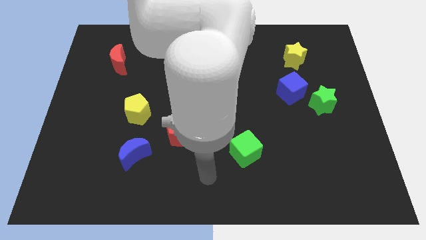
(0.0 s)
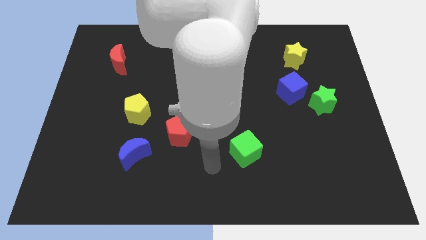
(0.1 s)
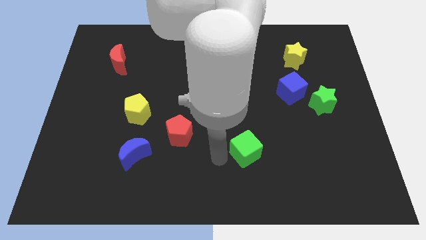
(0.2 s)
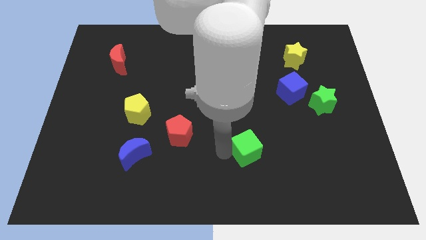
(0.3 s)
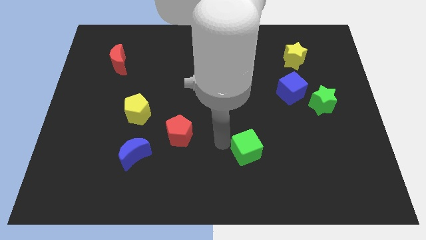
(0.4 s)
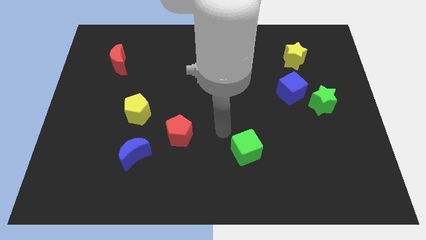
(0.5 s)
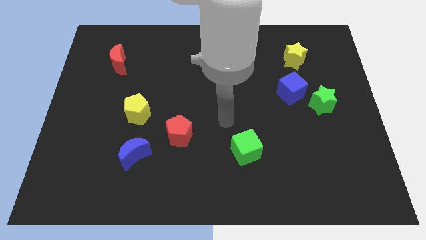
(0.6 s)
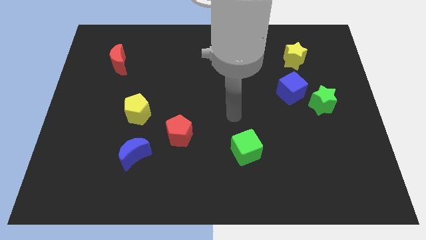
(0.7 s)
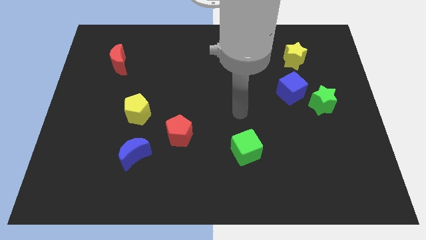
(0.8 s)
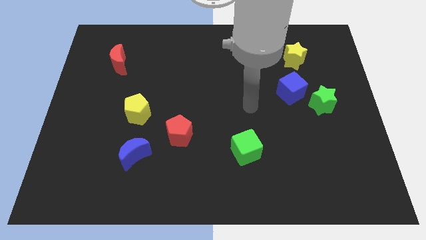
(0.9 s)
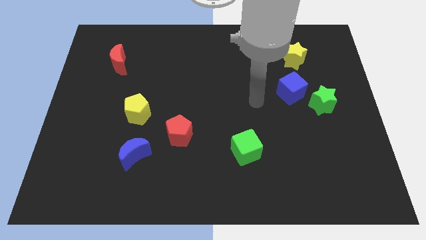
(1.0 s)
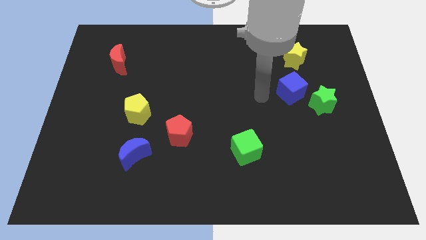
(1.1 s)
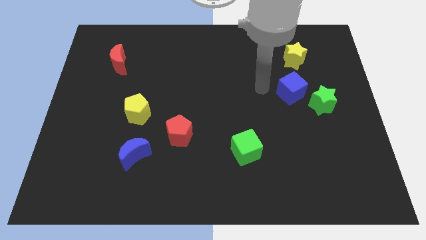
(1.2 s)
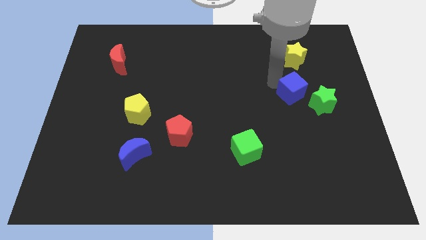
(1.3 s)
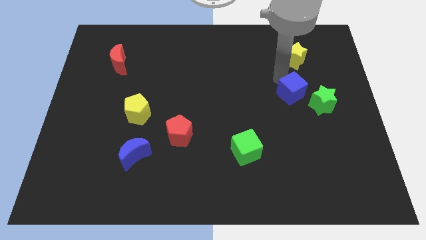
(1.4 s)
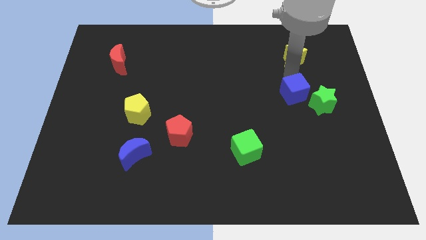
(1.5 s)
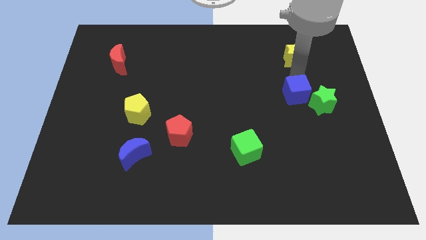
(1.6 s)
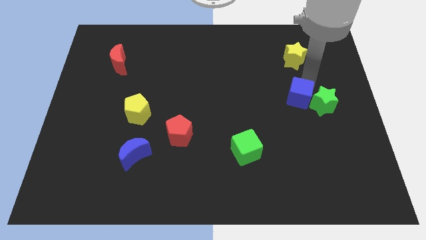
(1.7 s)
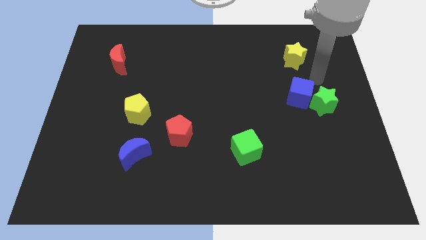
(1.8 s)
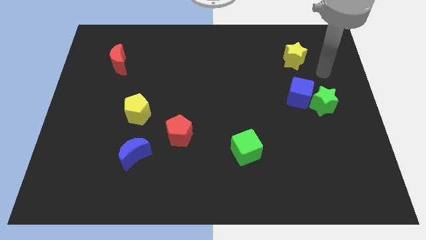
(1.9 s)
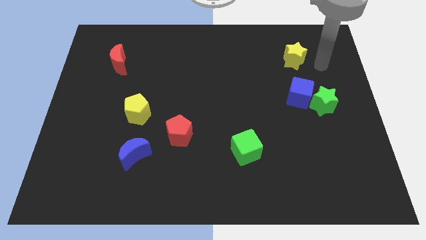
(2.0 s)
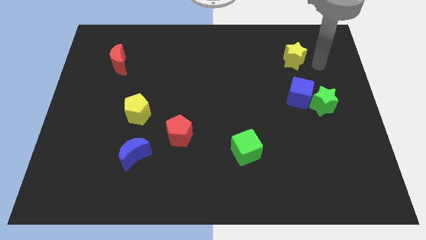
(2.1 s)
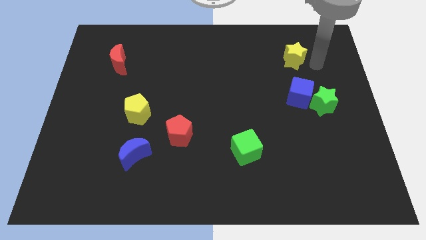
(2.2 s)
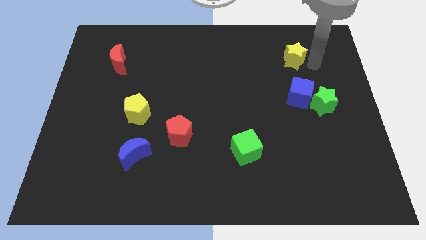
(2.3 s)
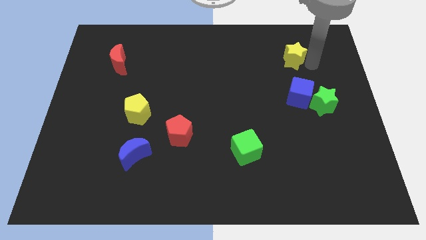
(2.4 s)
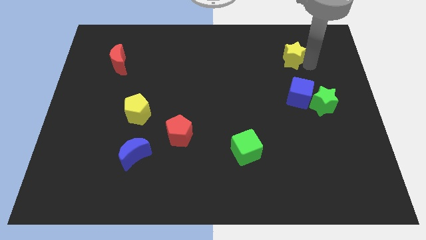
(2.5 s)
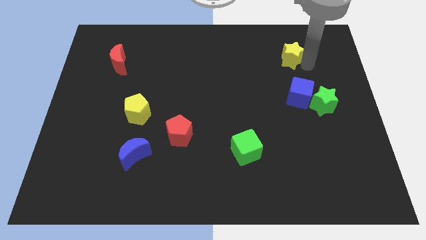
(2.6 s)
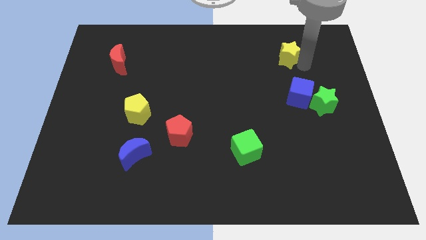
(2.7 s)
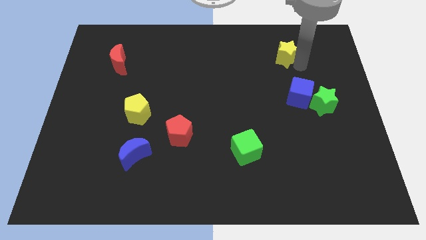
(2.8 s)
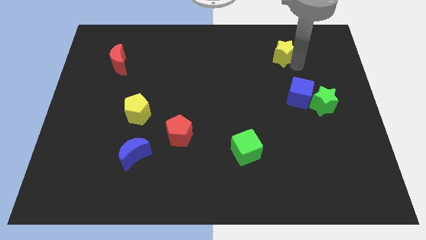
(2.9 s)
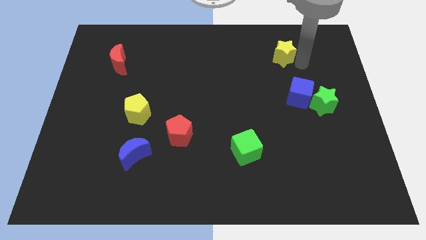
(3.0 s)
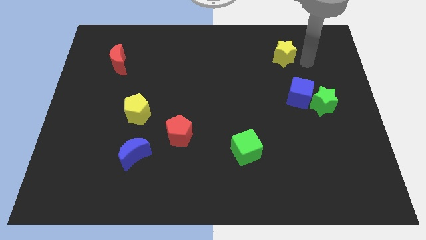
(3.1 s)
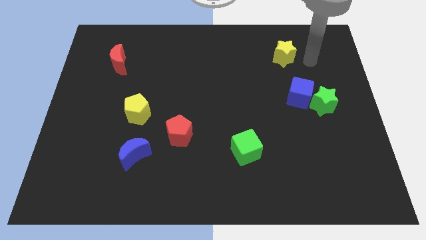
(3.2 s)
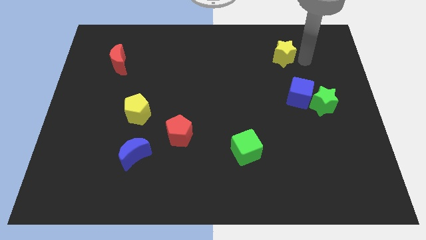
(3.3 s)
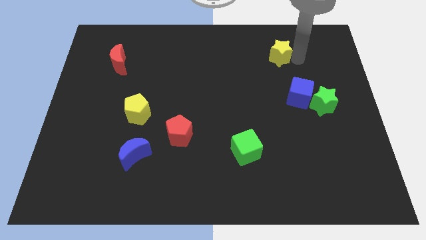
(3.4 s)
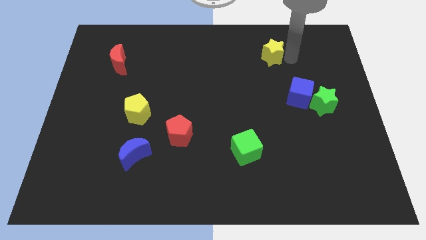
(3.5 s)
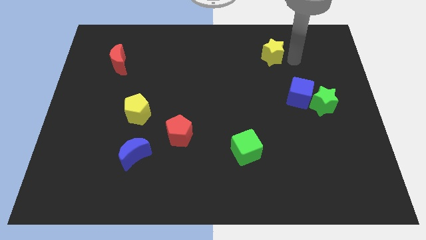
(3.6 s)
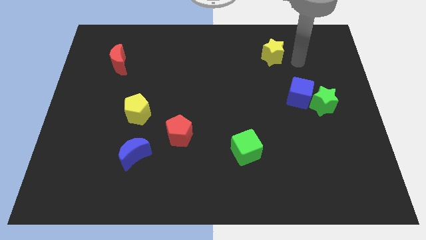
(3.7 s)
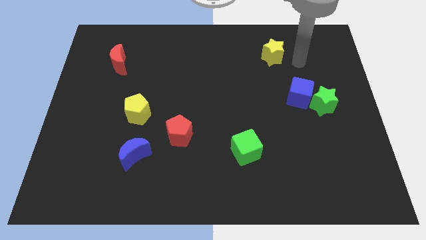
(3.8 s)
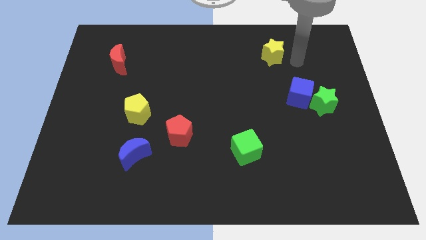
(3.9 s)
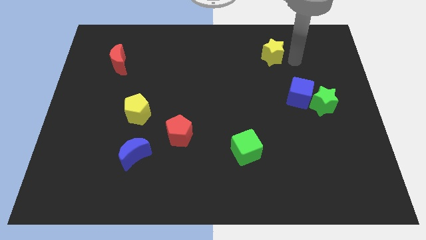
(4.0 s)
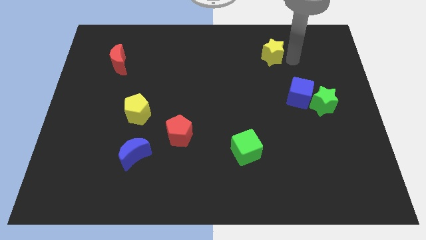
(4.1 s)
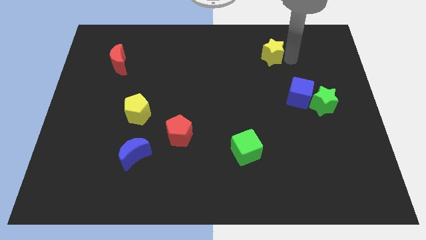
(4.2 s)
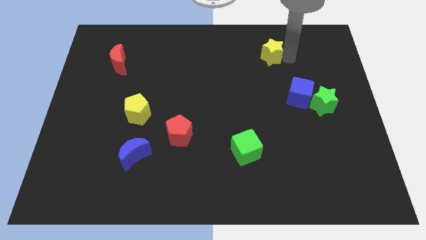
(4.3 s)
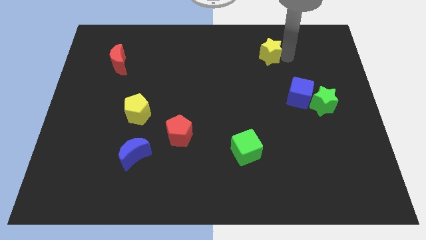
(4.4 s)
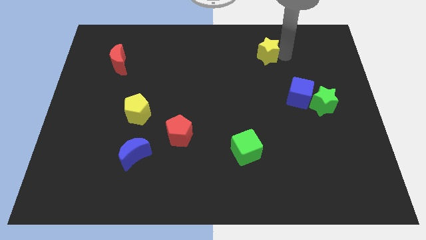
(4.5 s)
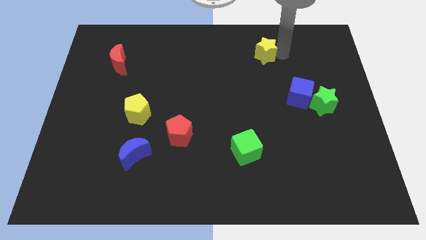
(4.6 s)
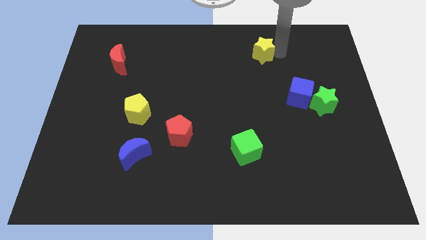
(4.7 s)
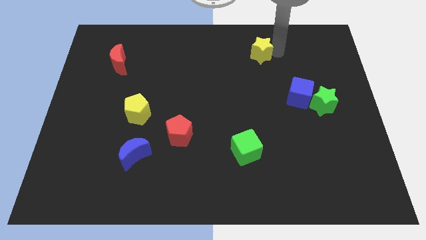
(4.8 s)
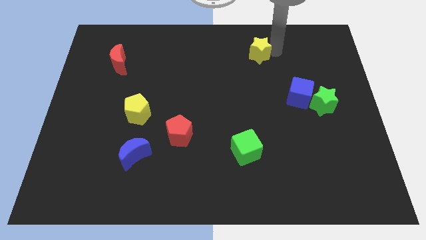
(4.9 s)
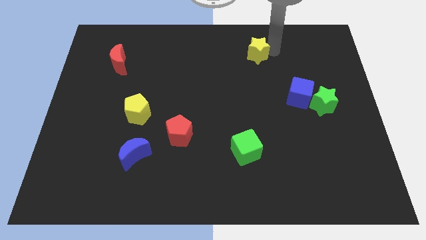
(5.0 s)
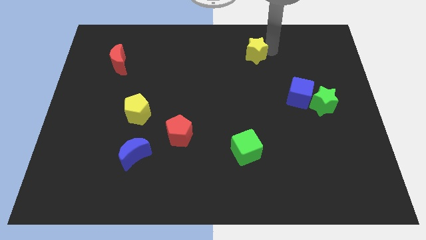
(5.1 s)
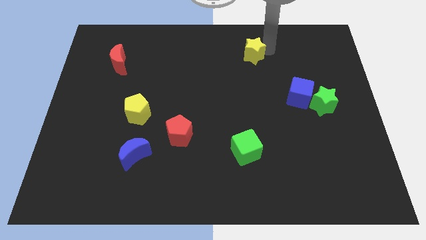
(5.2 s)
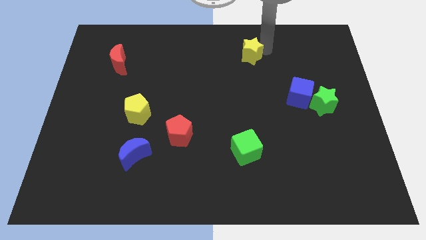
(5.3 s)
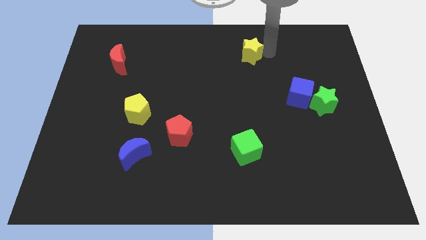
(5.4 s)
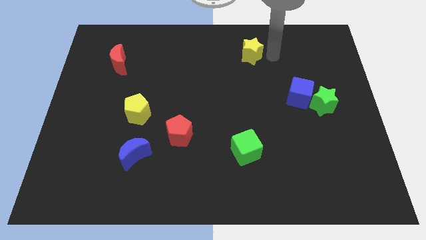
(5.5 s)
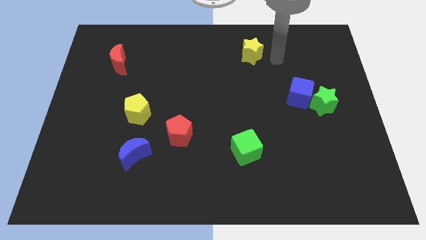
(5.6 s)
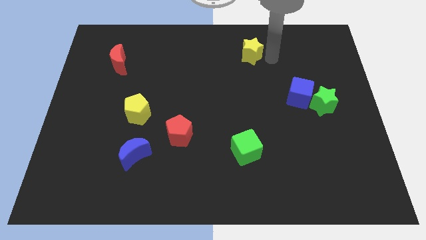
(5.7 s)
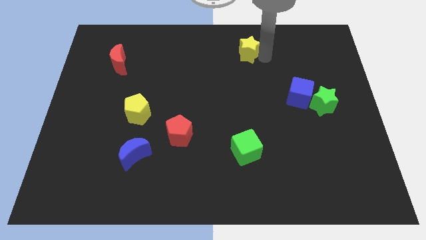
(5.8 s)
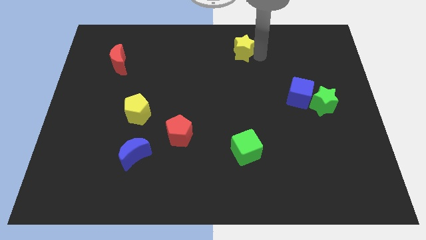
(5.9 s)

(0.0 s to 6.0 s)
put the yellow star to the top side

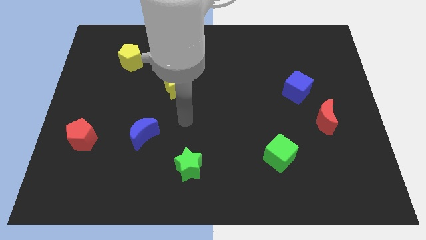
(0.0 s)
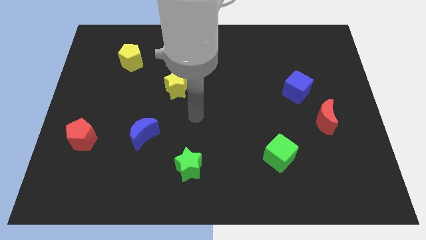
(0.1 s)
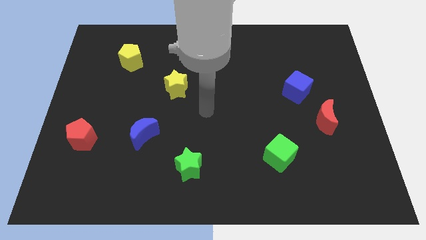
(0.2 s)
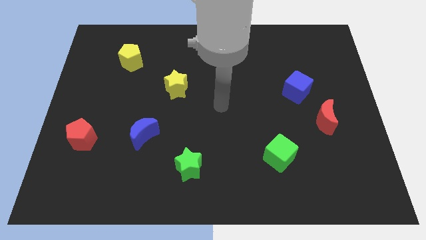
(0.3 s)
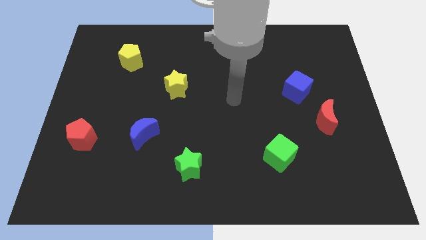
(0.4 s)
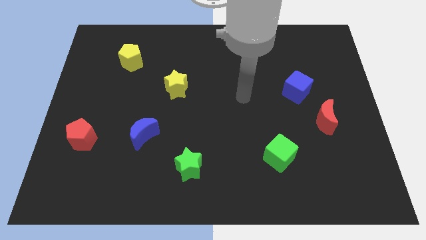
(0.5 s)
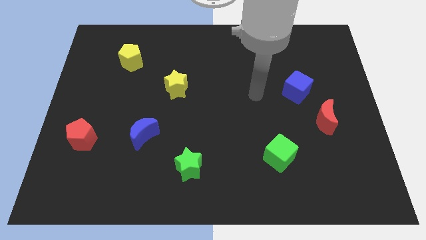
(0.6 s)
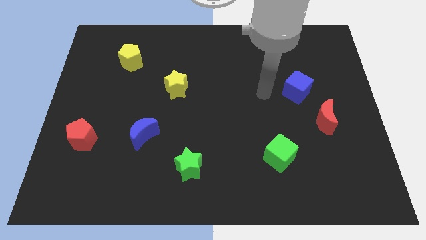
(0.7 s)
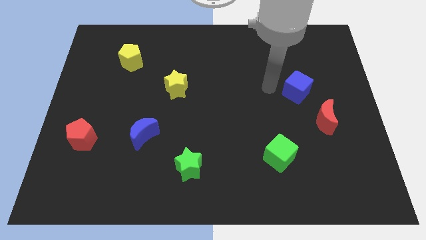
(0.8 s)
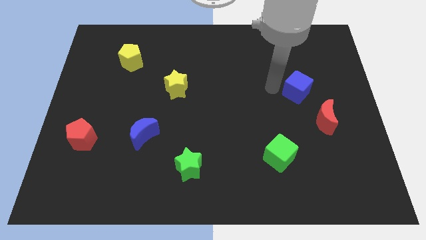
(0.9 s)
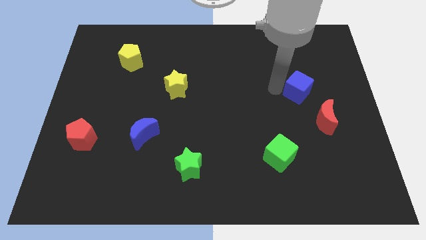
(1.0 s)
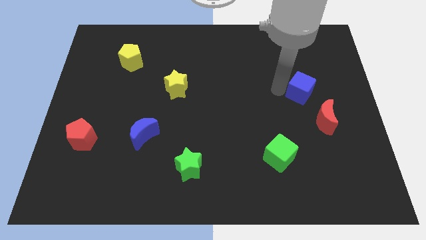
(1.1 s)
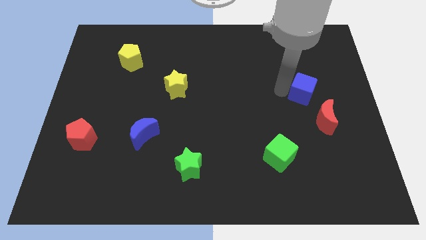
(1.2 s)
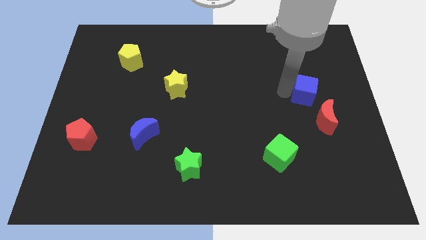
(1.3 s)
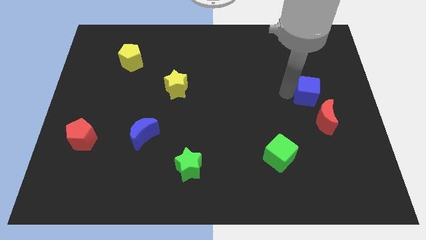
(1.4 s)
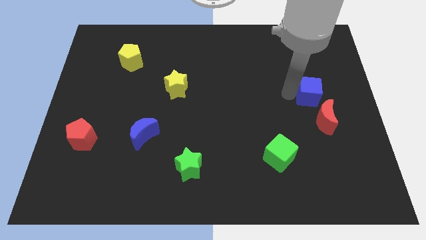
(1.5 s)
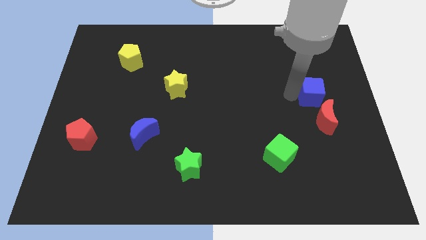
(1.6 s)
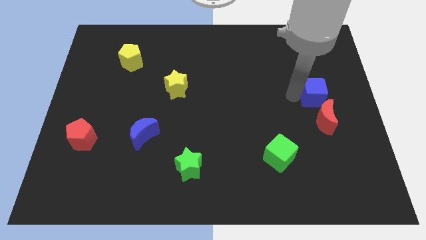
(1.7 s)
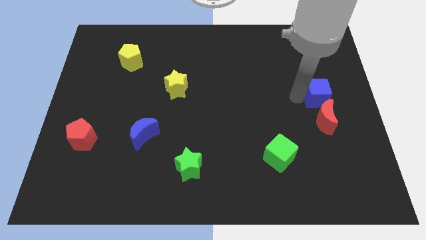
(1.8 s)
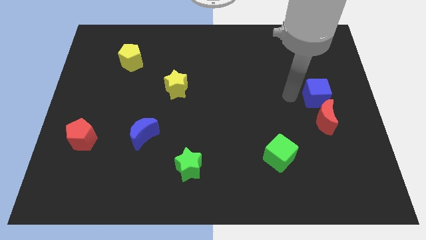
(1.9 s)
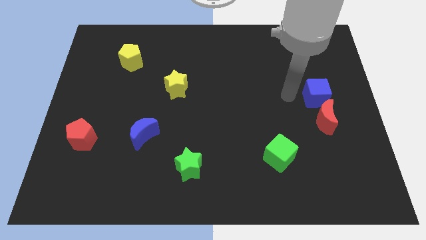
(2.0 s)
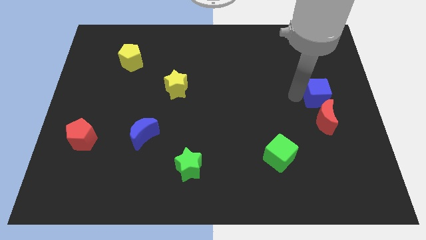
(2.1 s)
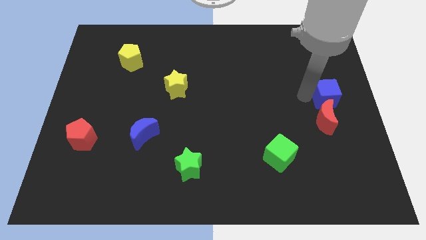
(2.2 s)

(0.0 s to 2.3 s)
slide the blue cube to the right side
